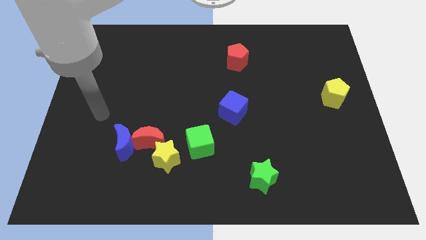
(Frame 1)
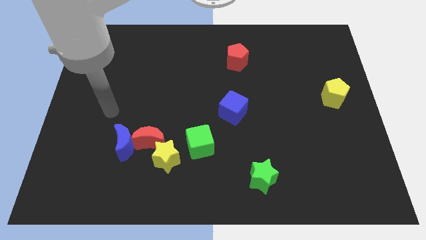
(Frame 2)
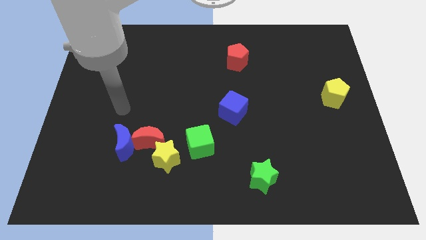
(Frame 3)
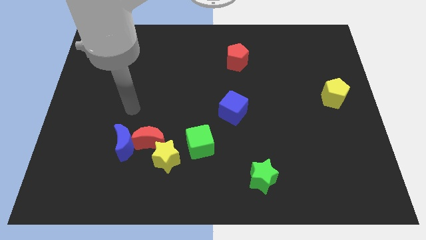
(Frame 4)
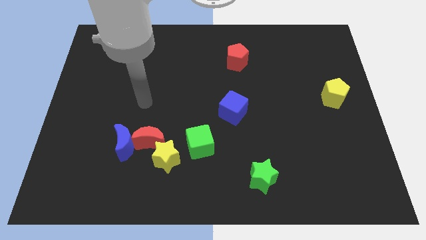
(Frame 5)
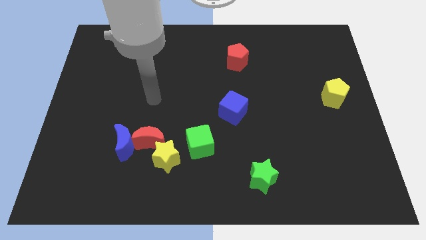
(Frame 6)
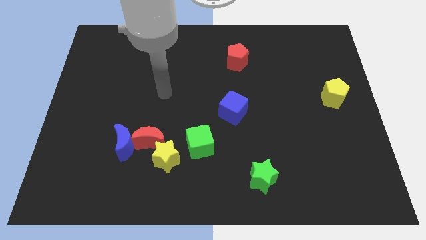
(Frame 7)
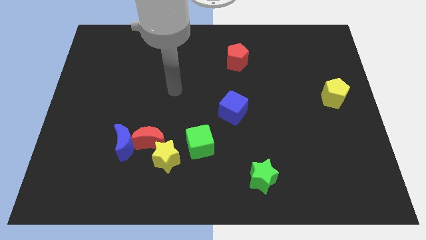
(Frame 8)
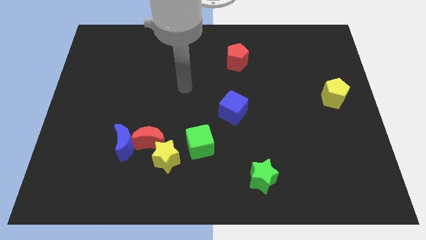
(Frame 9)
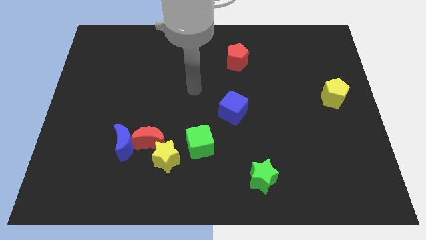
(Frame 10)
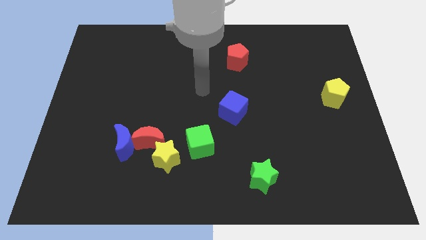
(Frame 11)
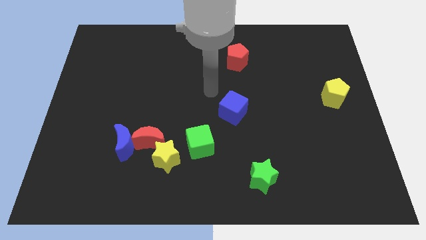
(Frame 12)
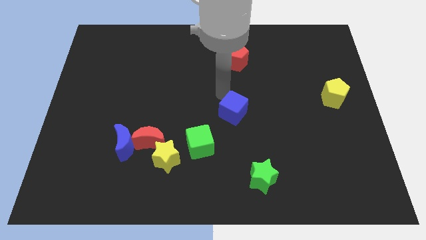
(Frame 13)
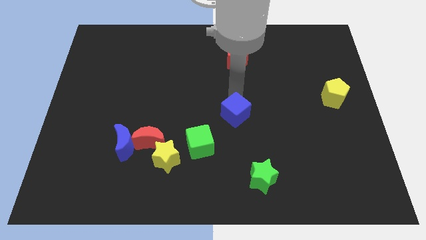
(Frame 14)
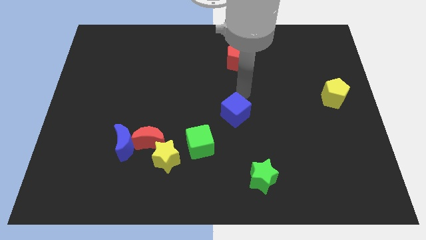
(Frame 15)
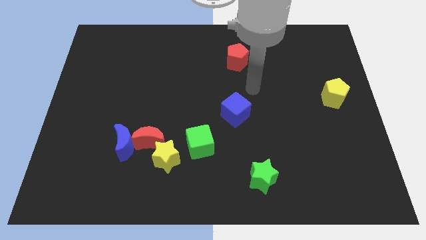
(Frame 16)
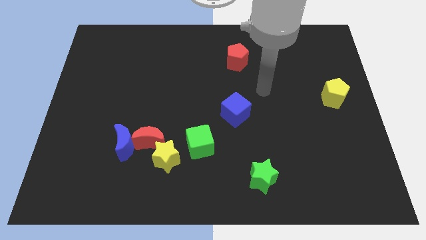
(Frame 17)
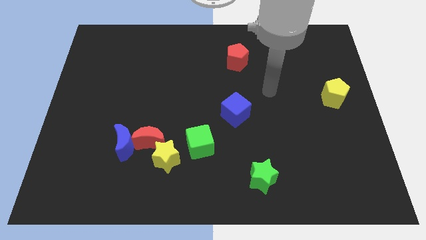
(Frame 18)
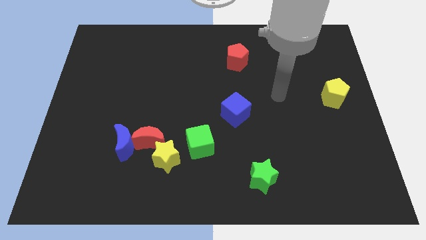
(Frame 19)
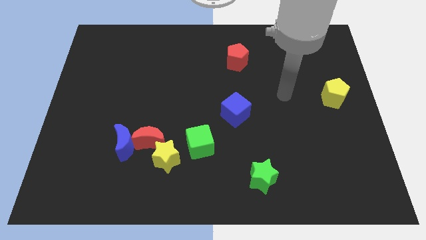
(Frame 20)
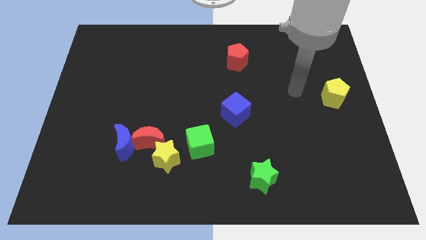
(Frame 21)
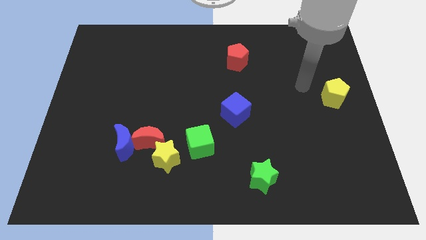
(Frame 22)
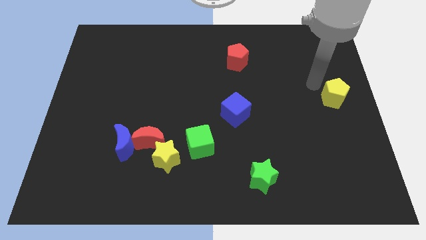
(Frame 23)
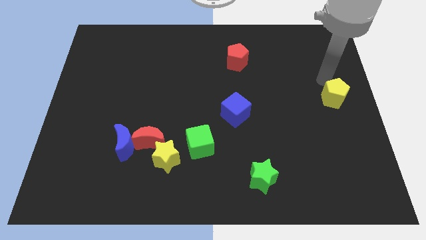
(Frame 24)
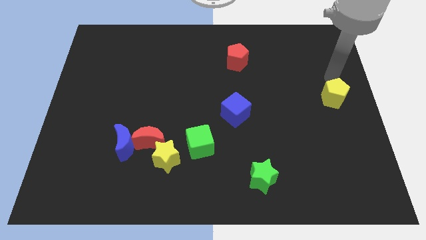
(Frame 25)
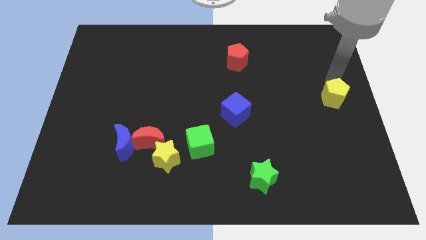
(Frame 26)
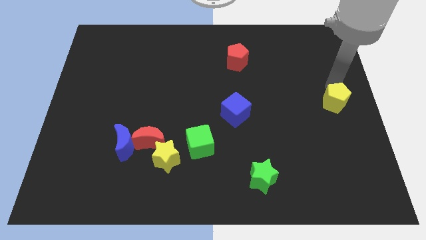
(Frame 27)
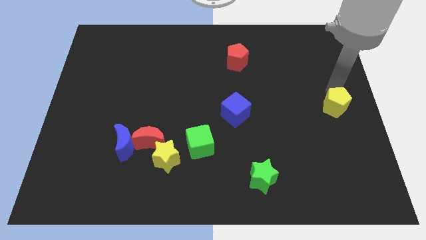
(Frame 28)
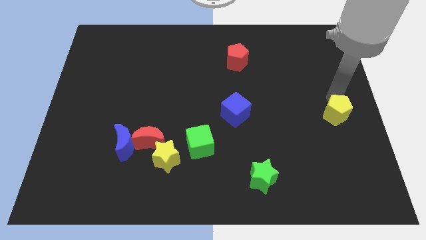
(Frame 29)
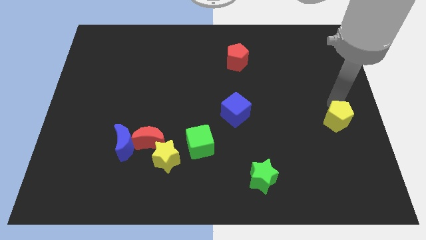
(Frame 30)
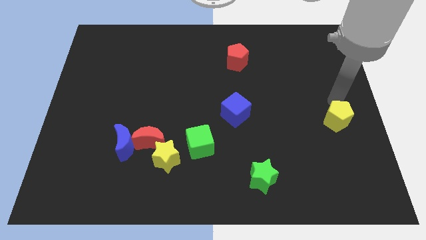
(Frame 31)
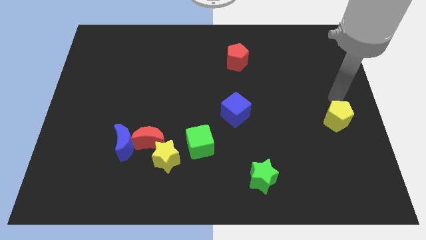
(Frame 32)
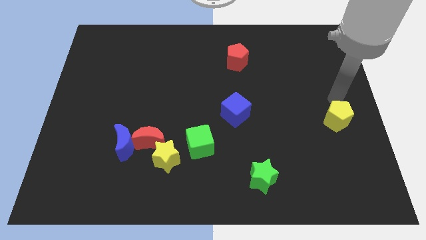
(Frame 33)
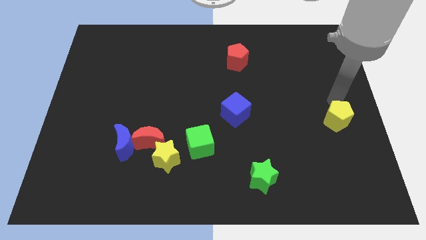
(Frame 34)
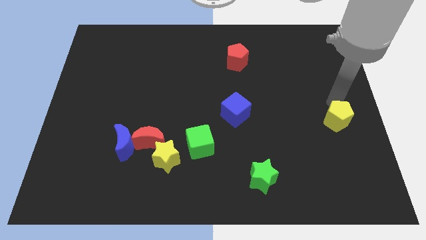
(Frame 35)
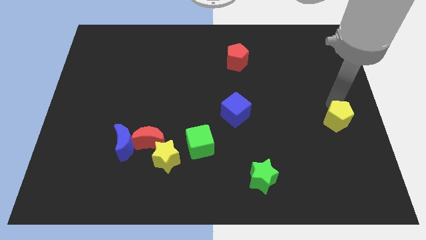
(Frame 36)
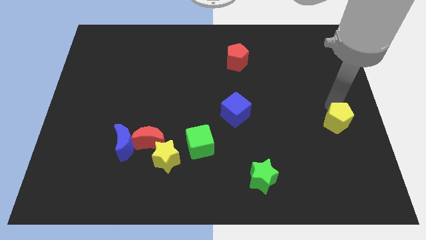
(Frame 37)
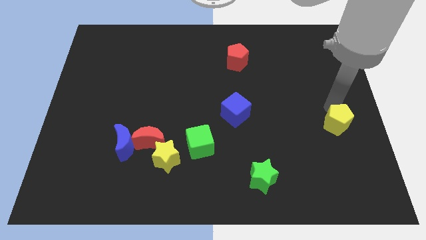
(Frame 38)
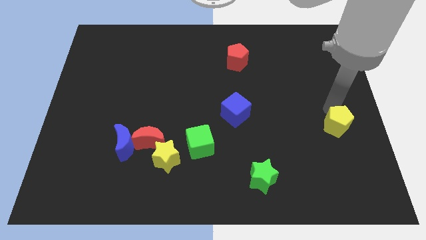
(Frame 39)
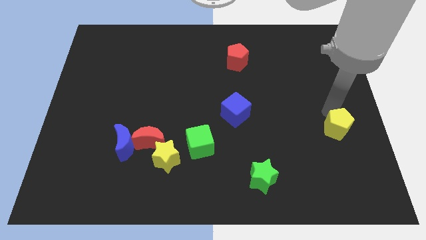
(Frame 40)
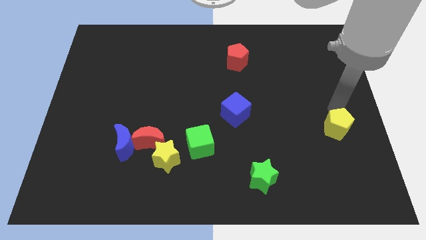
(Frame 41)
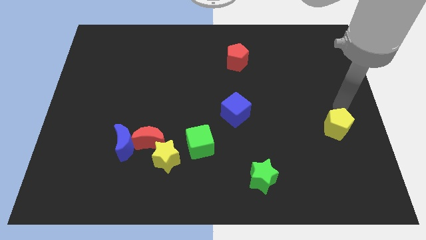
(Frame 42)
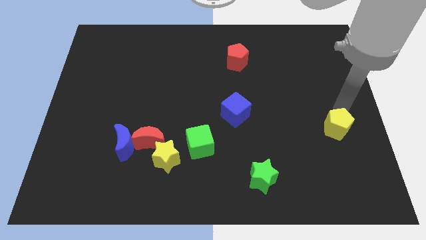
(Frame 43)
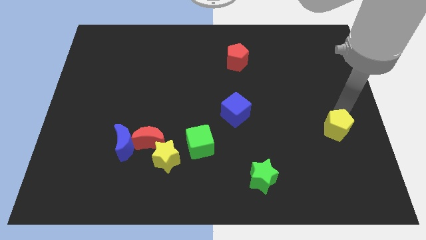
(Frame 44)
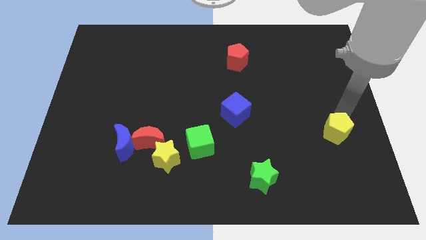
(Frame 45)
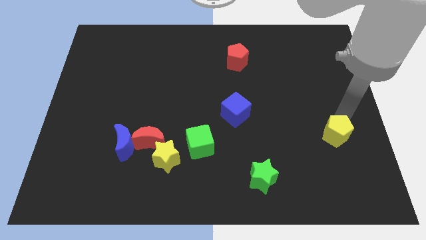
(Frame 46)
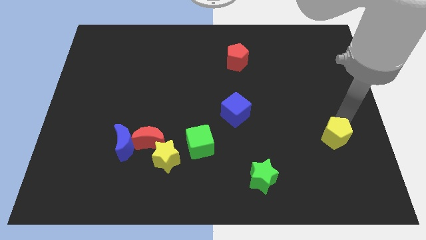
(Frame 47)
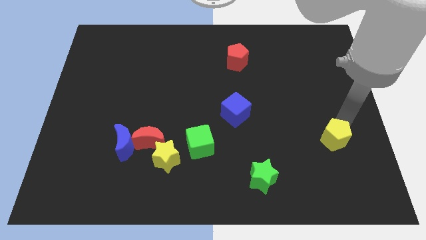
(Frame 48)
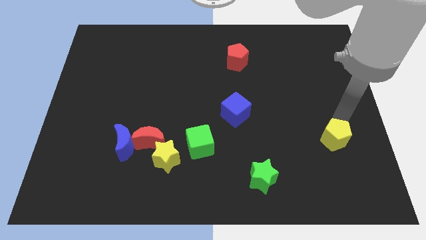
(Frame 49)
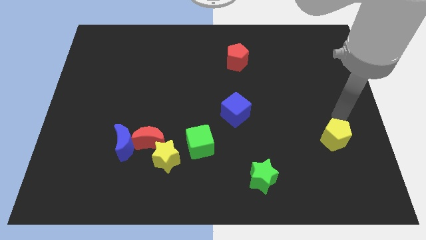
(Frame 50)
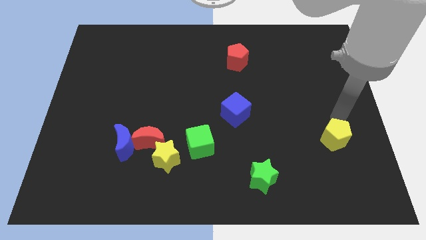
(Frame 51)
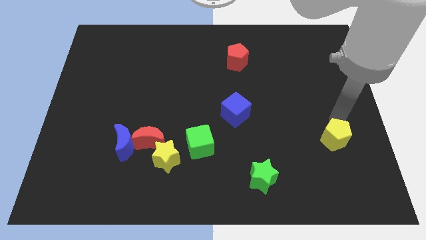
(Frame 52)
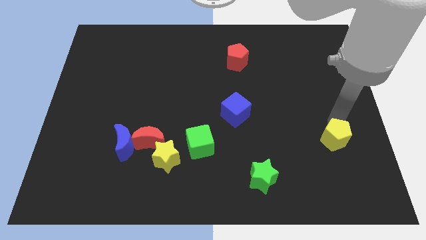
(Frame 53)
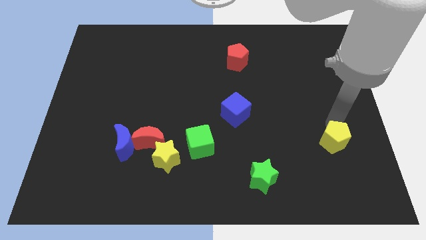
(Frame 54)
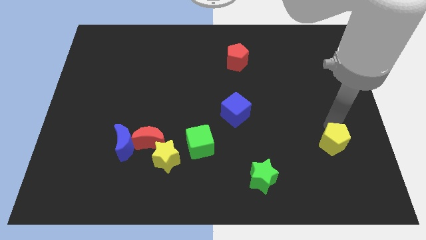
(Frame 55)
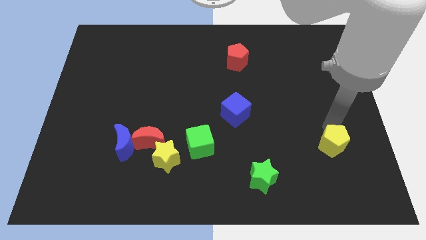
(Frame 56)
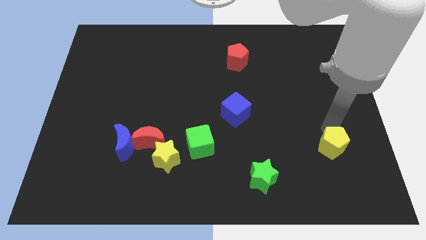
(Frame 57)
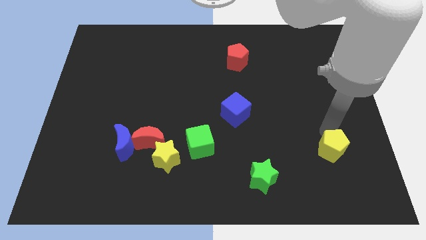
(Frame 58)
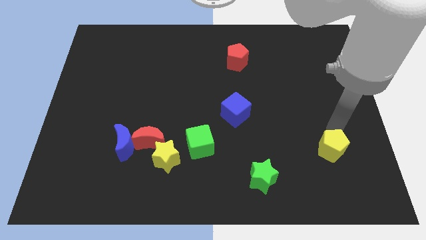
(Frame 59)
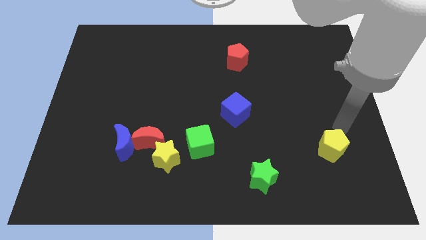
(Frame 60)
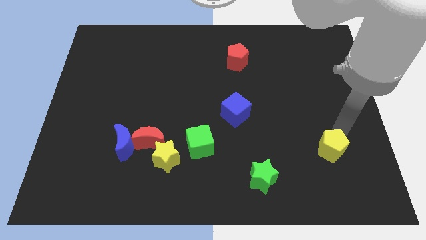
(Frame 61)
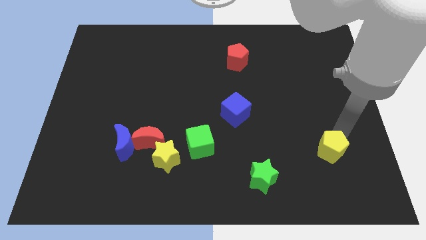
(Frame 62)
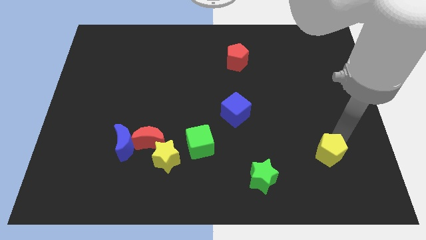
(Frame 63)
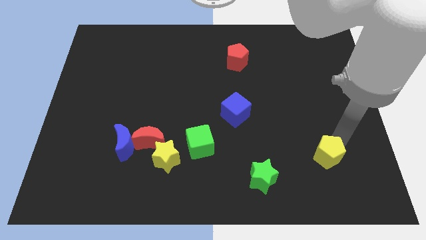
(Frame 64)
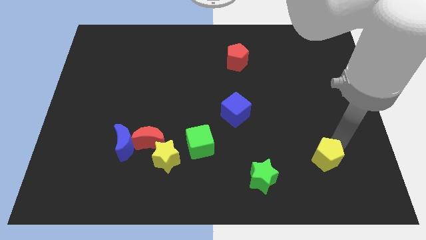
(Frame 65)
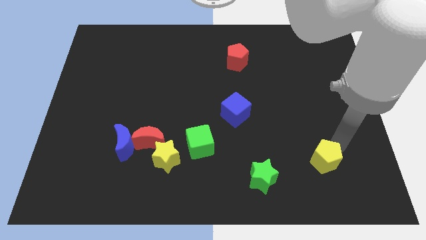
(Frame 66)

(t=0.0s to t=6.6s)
slide the yellow pentagon just right of the green star

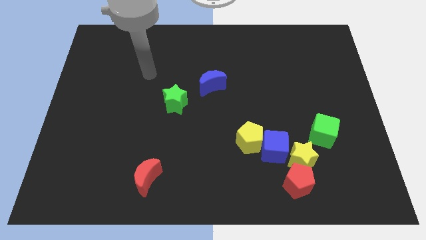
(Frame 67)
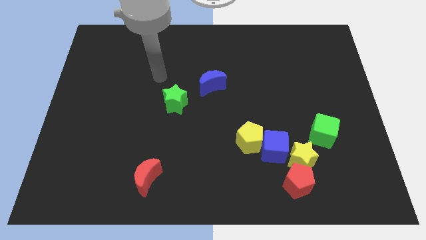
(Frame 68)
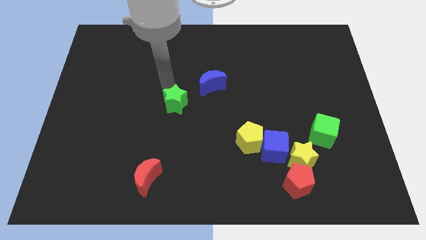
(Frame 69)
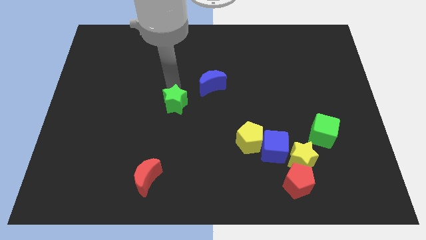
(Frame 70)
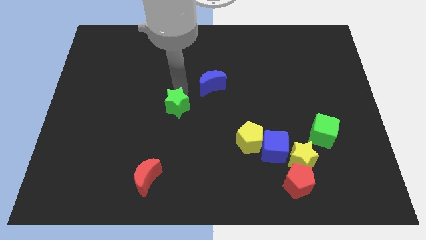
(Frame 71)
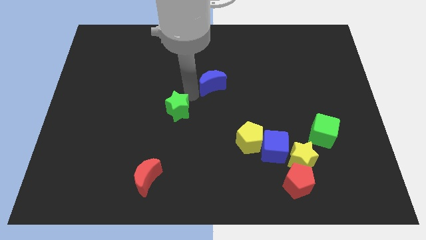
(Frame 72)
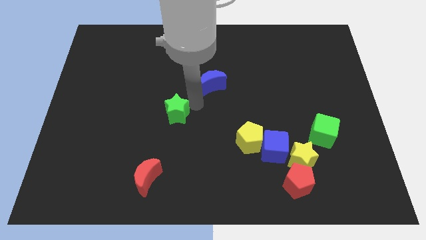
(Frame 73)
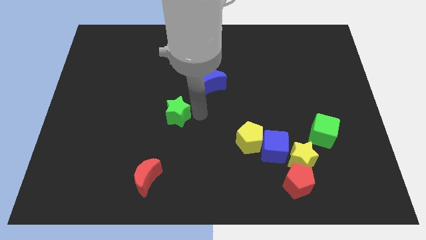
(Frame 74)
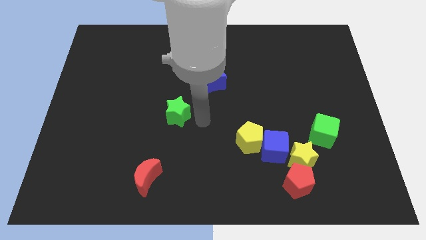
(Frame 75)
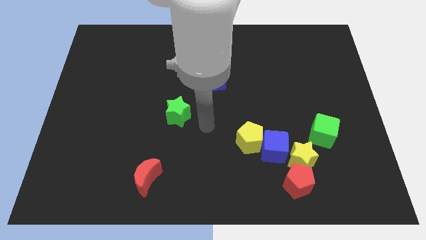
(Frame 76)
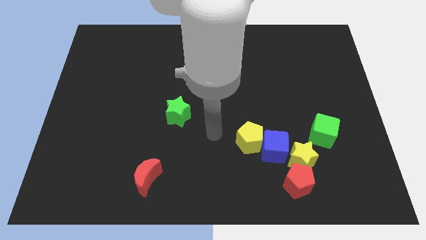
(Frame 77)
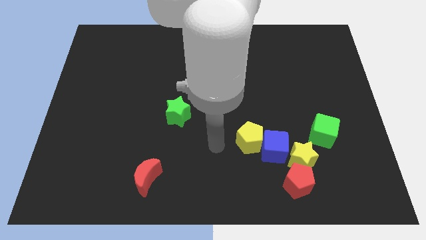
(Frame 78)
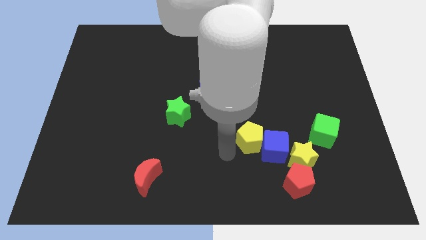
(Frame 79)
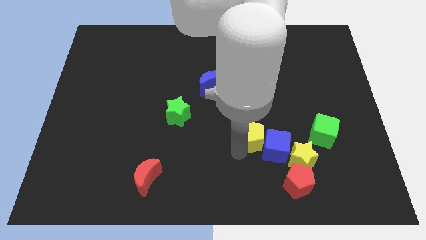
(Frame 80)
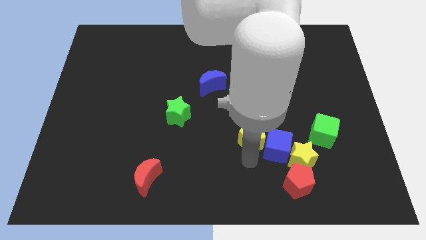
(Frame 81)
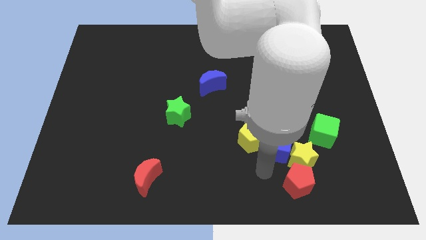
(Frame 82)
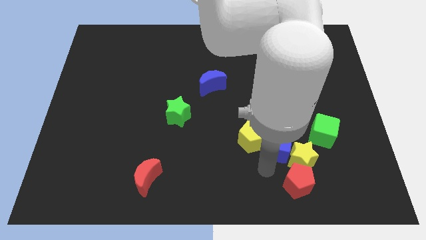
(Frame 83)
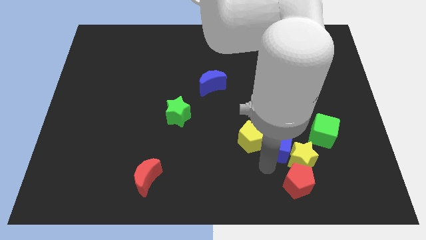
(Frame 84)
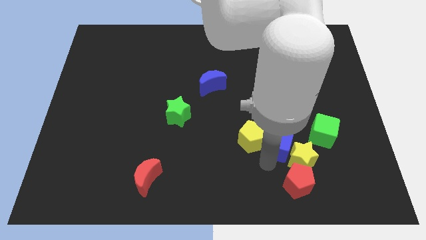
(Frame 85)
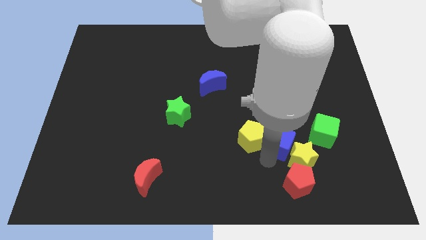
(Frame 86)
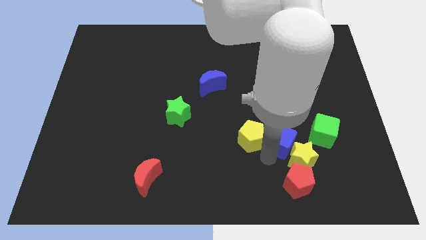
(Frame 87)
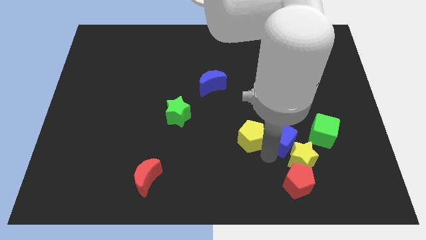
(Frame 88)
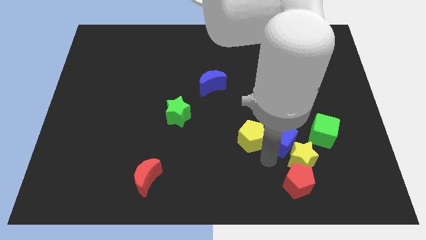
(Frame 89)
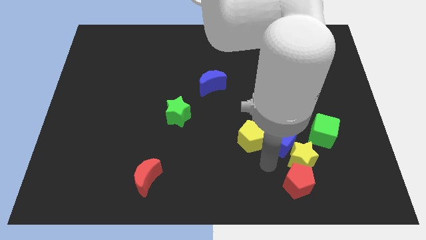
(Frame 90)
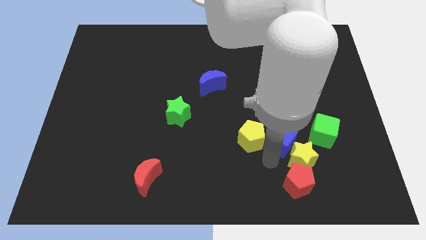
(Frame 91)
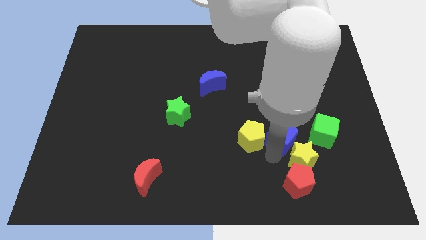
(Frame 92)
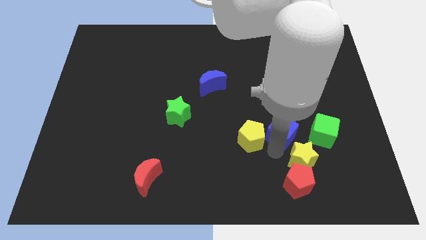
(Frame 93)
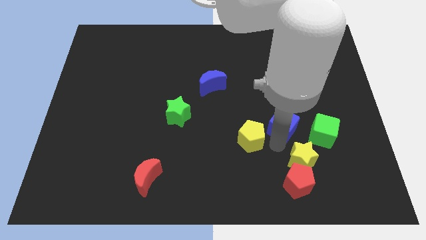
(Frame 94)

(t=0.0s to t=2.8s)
move the blue cube to the top left side of the green cube
